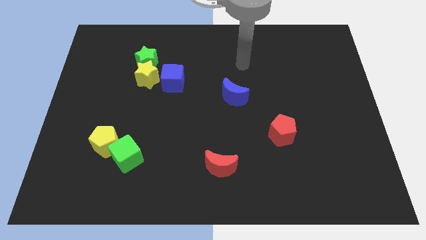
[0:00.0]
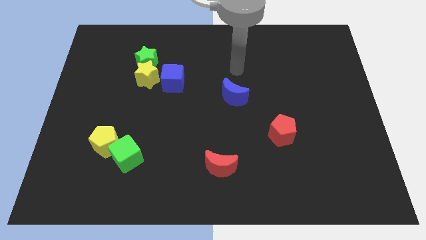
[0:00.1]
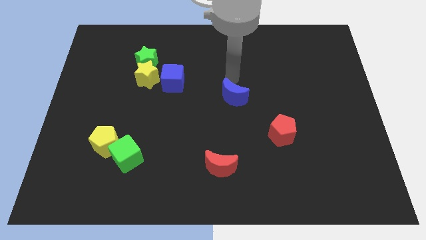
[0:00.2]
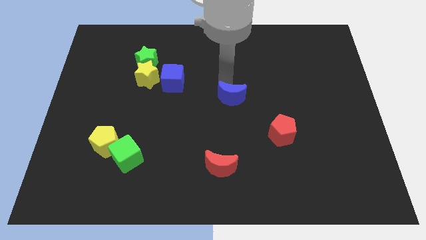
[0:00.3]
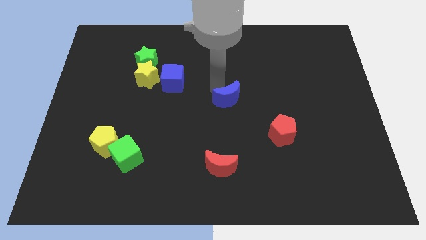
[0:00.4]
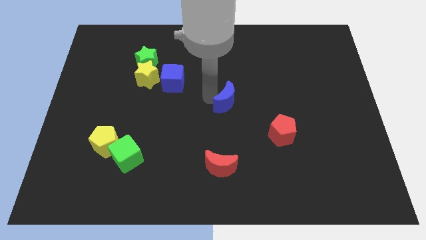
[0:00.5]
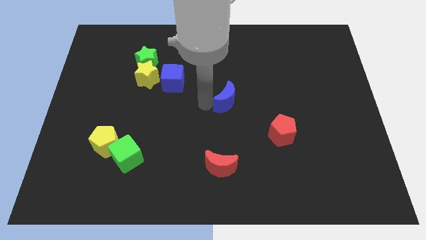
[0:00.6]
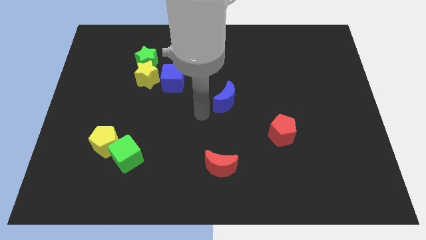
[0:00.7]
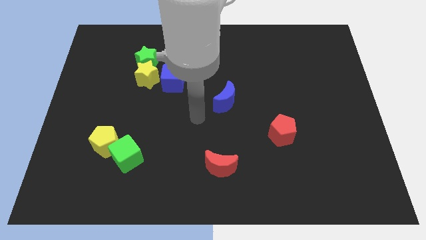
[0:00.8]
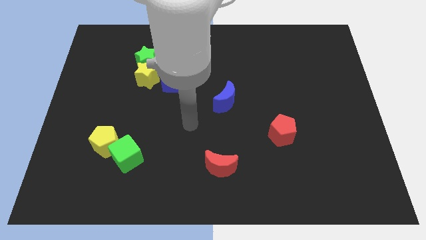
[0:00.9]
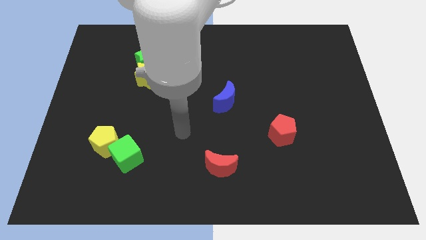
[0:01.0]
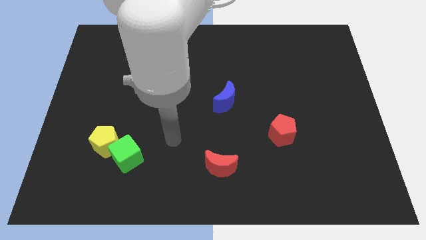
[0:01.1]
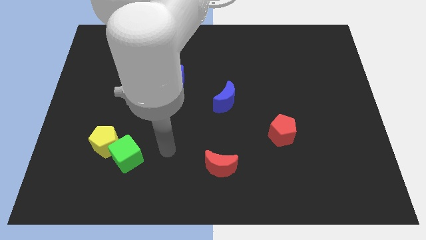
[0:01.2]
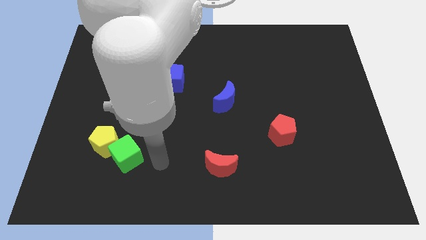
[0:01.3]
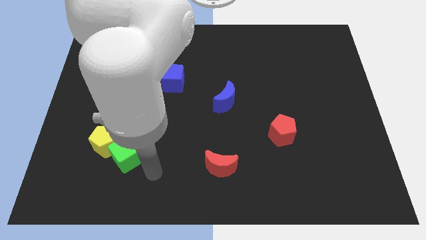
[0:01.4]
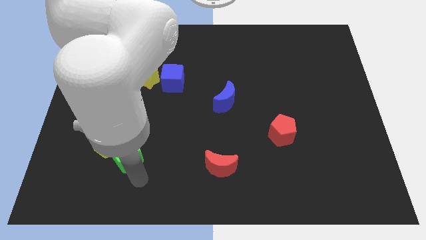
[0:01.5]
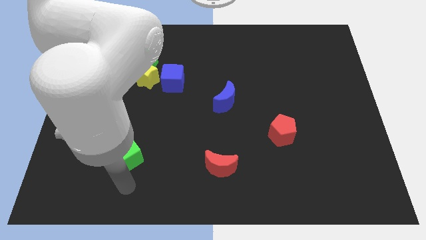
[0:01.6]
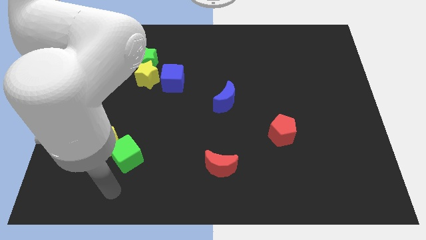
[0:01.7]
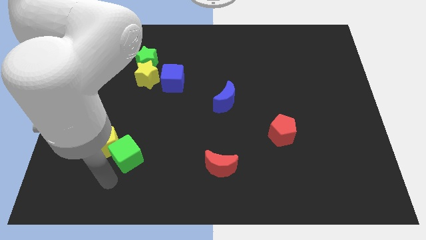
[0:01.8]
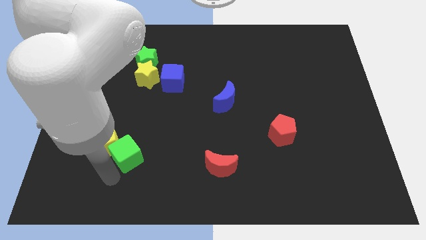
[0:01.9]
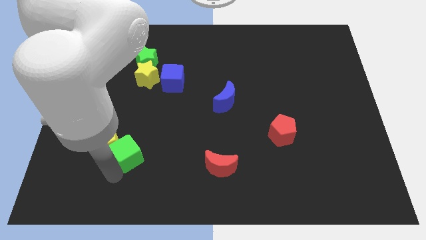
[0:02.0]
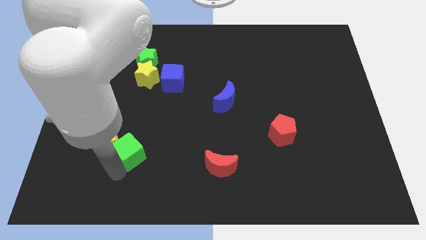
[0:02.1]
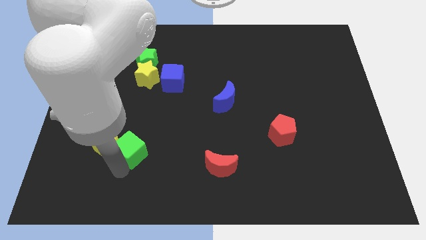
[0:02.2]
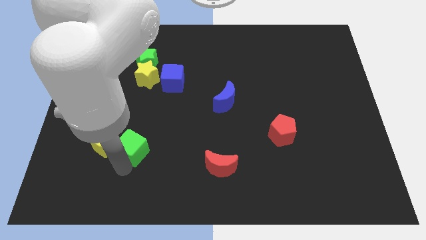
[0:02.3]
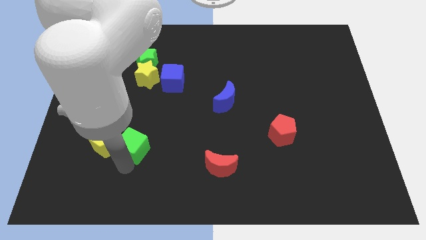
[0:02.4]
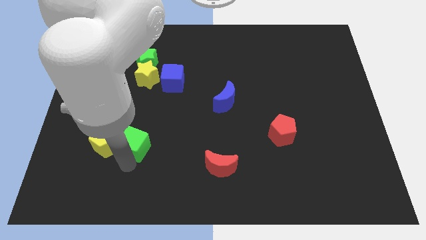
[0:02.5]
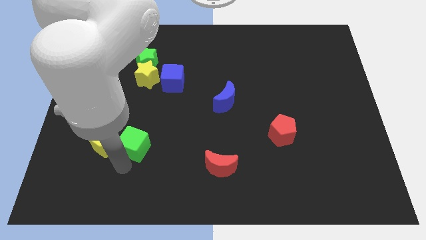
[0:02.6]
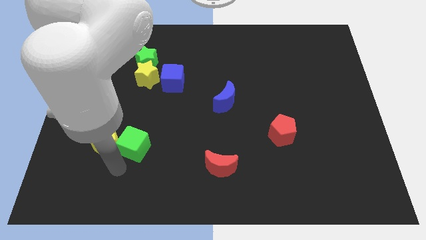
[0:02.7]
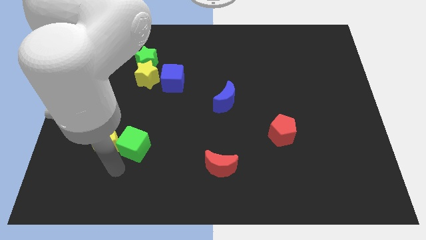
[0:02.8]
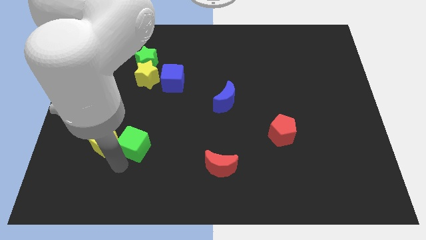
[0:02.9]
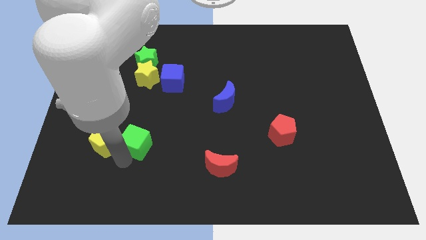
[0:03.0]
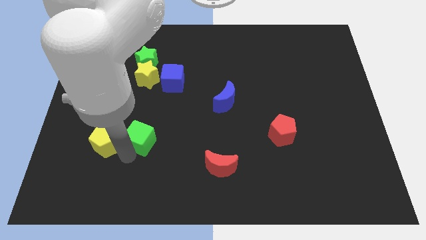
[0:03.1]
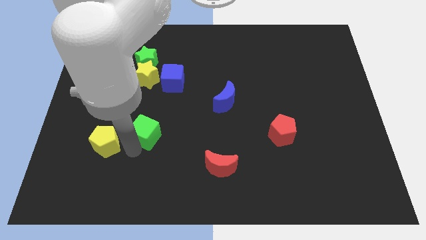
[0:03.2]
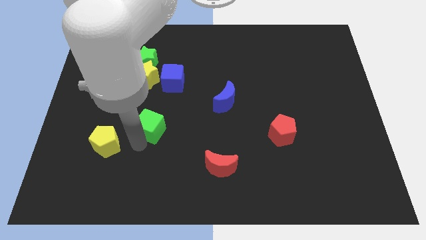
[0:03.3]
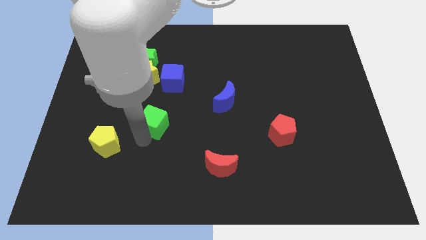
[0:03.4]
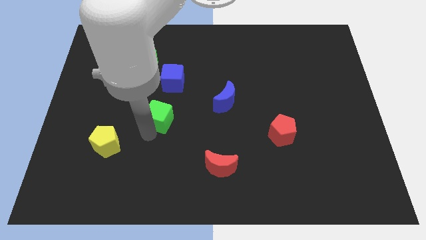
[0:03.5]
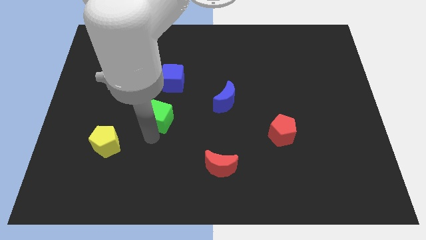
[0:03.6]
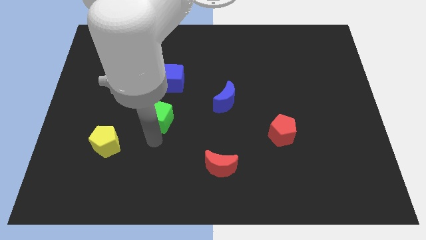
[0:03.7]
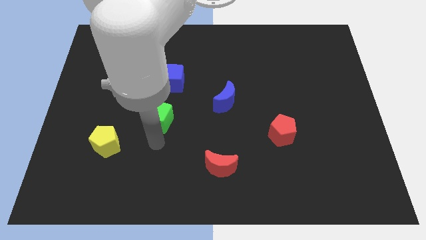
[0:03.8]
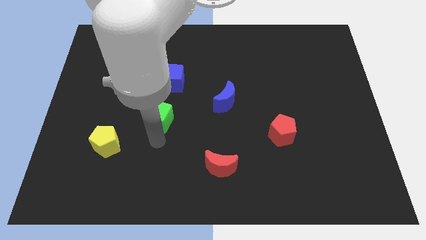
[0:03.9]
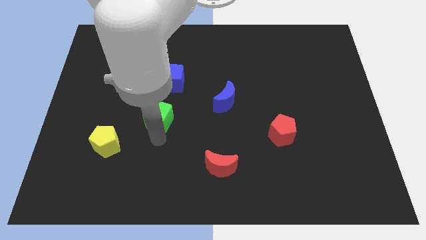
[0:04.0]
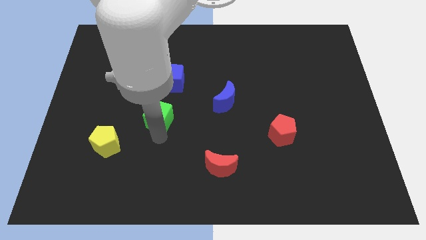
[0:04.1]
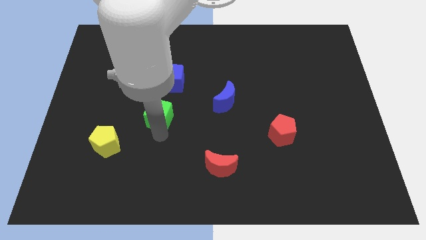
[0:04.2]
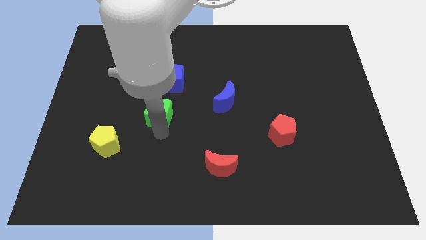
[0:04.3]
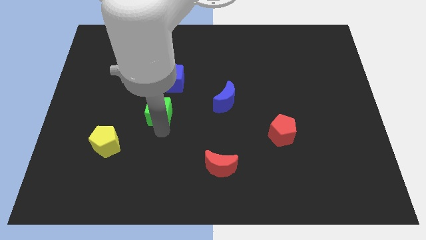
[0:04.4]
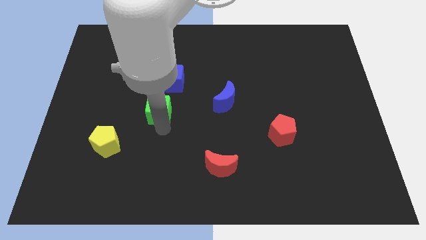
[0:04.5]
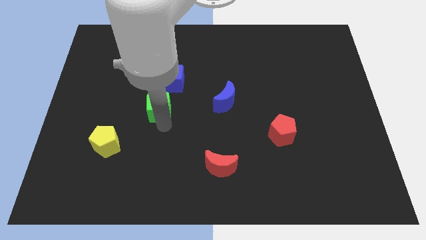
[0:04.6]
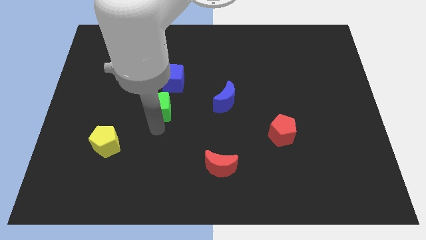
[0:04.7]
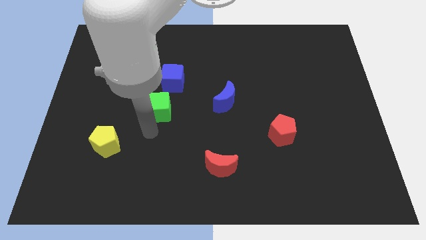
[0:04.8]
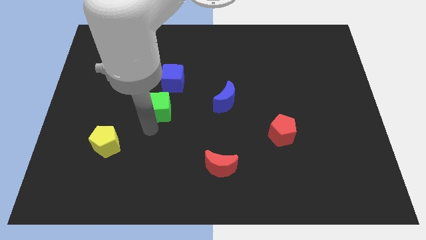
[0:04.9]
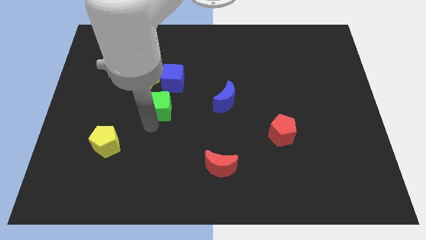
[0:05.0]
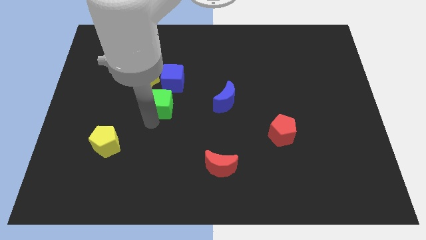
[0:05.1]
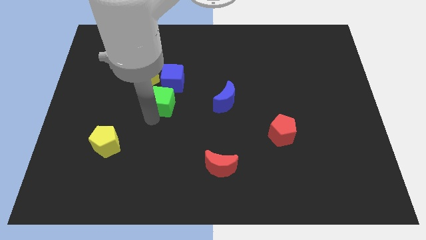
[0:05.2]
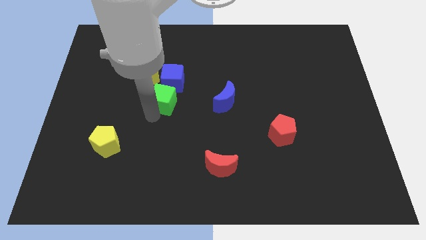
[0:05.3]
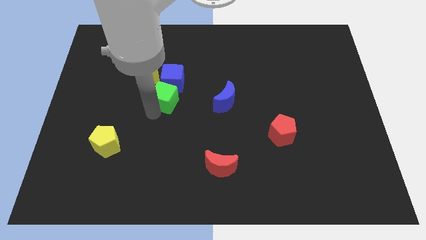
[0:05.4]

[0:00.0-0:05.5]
move the green cube towards the blue cube

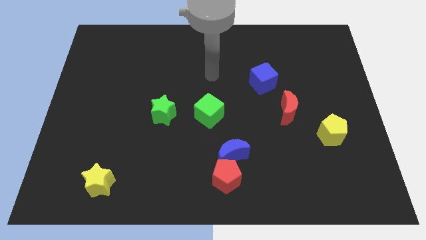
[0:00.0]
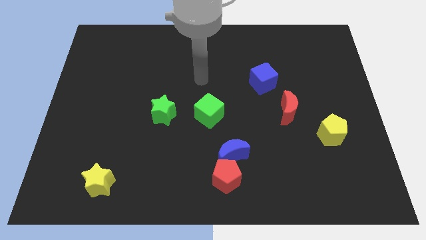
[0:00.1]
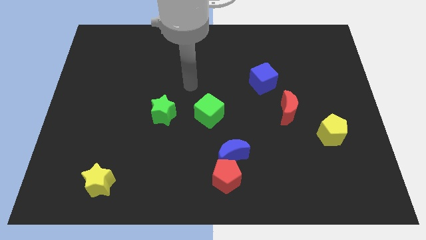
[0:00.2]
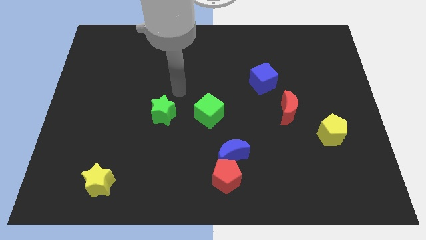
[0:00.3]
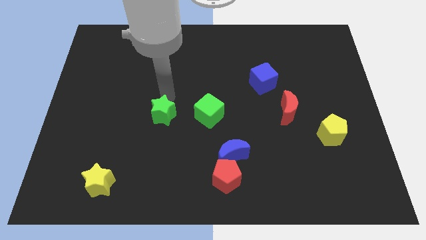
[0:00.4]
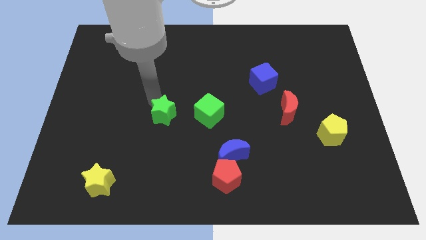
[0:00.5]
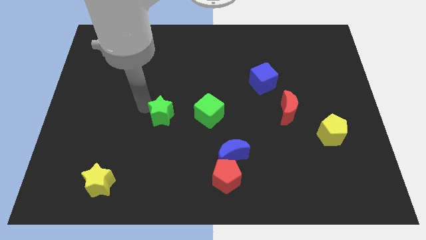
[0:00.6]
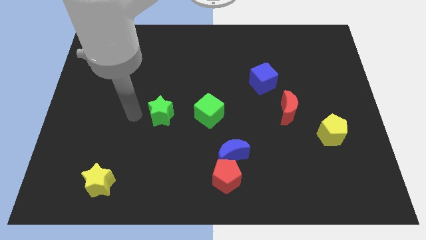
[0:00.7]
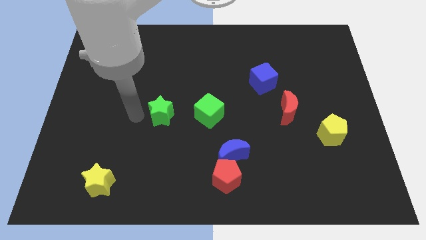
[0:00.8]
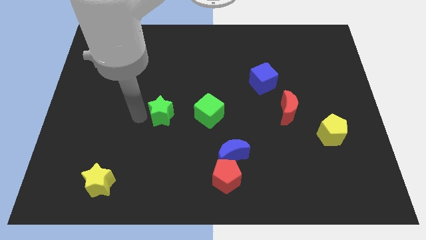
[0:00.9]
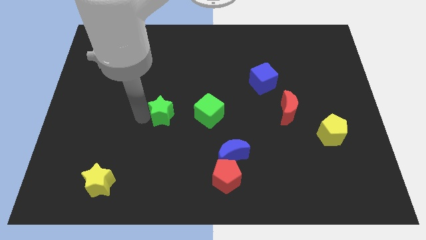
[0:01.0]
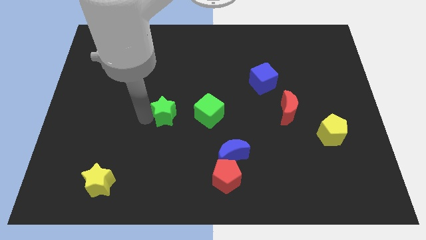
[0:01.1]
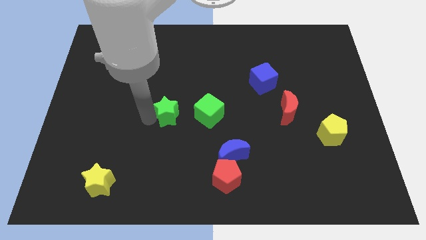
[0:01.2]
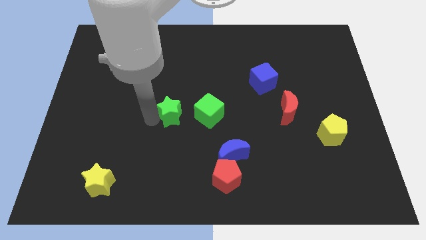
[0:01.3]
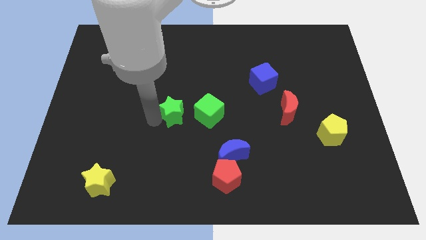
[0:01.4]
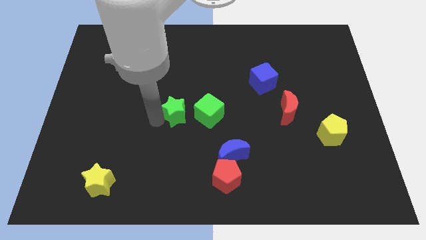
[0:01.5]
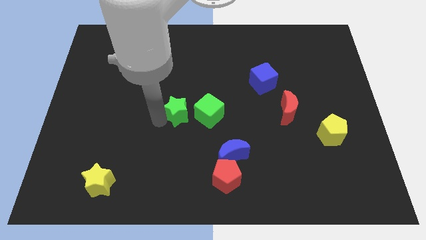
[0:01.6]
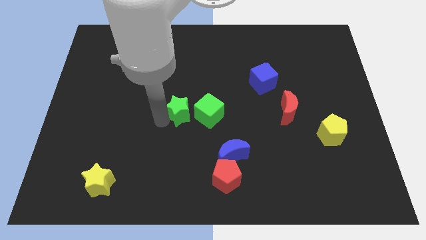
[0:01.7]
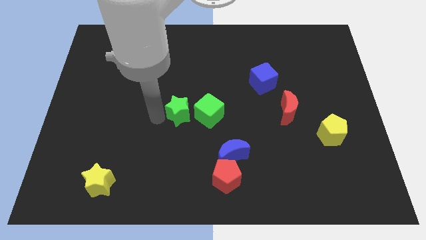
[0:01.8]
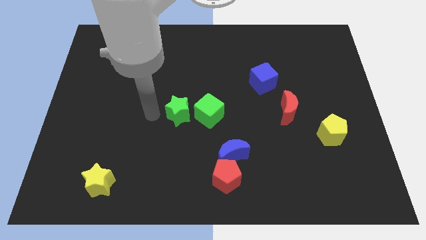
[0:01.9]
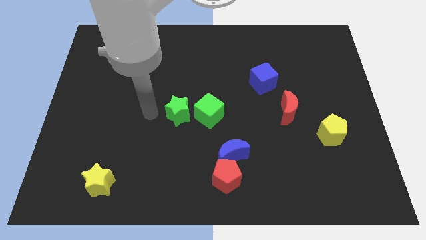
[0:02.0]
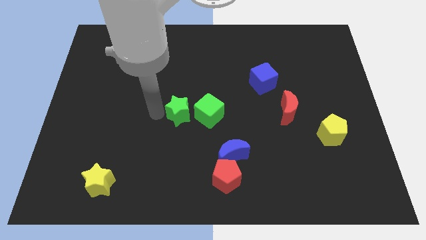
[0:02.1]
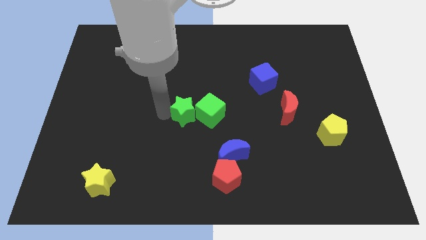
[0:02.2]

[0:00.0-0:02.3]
slide the green star next to the green cube

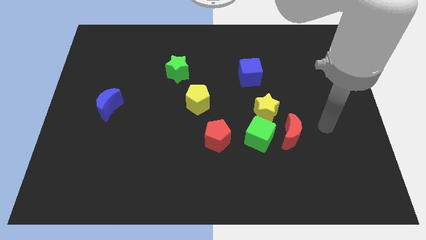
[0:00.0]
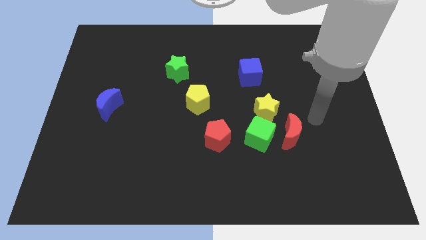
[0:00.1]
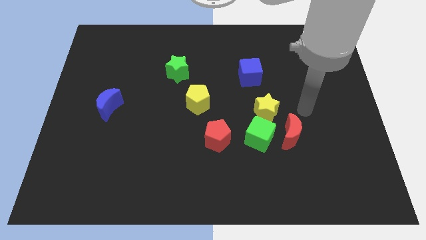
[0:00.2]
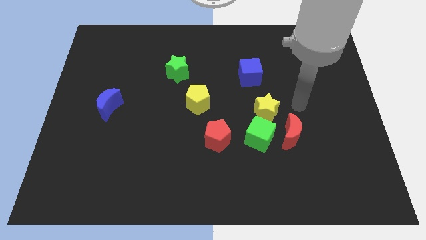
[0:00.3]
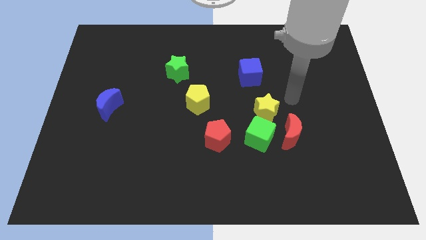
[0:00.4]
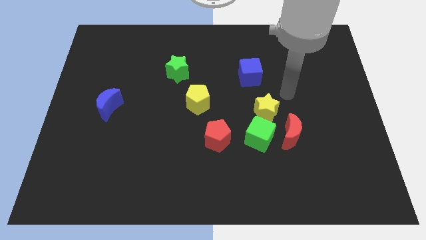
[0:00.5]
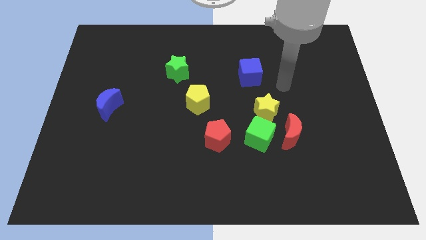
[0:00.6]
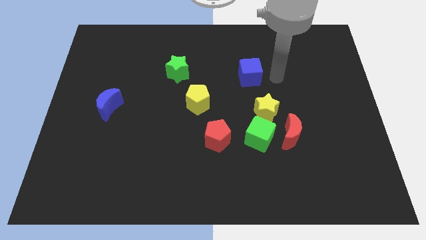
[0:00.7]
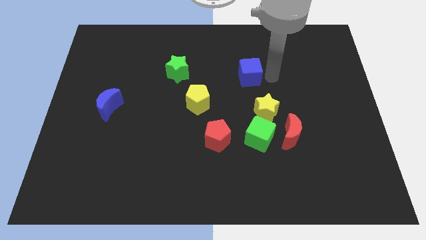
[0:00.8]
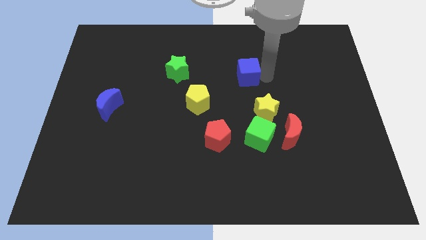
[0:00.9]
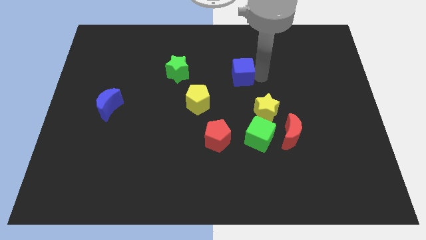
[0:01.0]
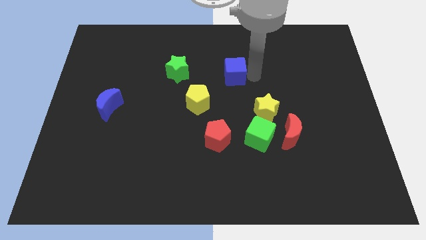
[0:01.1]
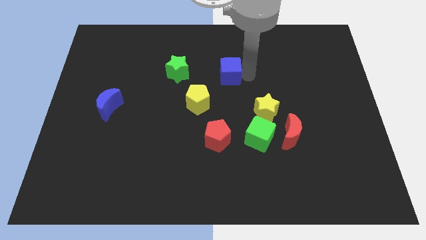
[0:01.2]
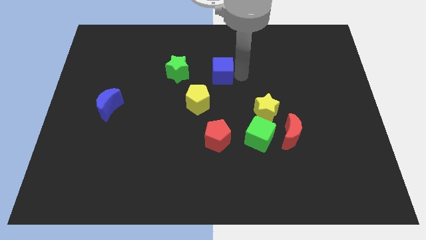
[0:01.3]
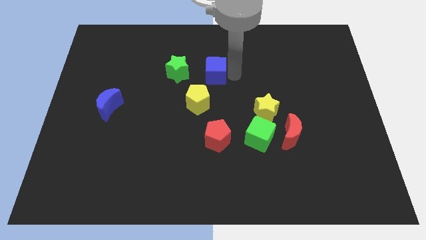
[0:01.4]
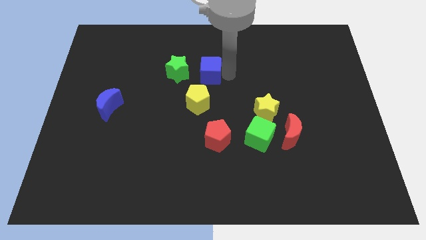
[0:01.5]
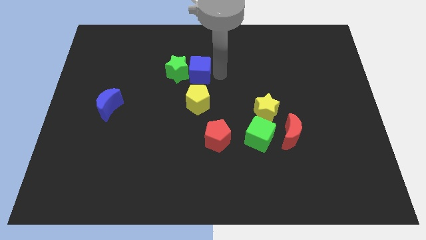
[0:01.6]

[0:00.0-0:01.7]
slide the blue cube next to the green star
